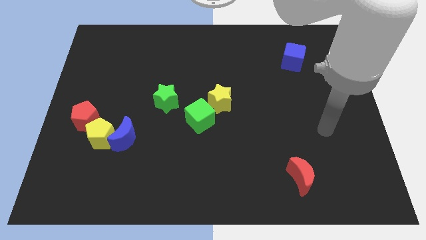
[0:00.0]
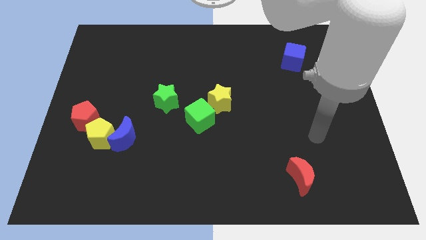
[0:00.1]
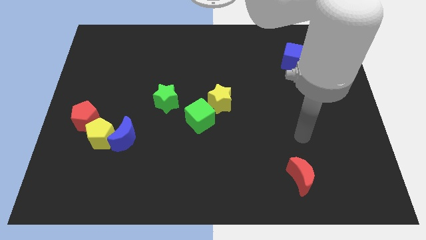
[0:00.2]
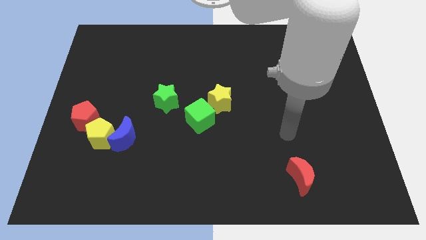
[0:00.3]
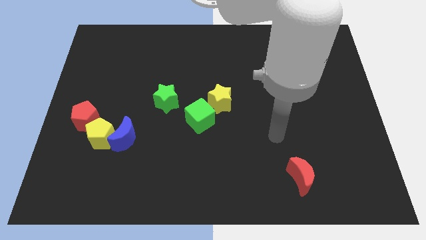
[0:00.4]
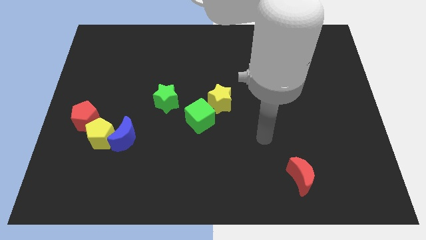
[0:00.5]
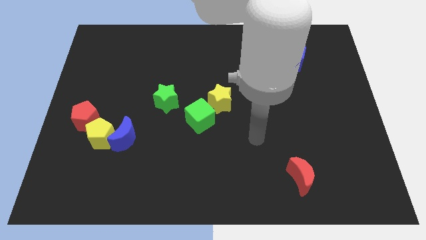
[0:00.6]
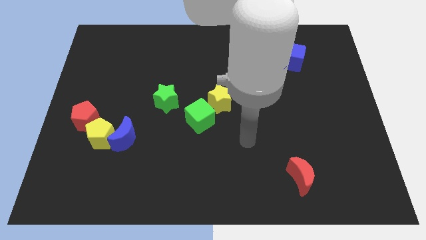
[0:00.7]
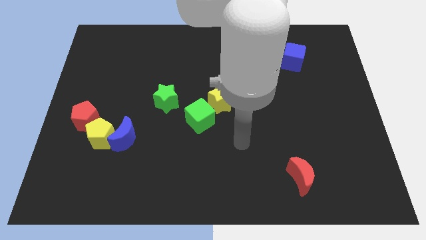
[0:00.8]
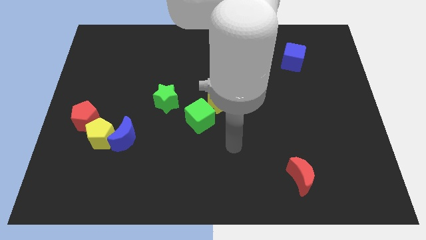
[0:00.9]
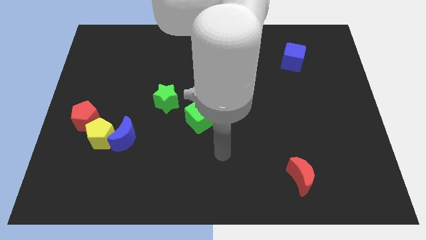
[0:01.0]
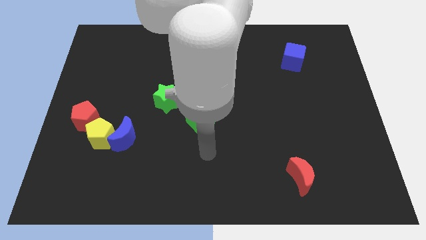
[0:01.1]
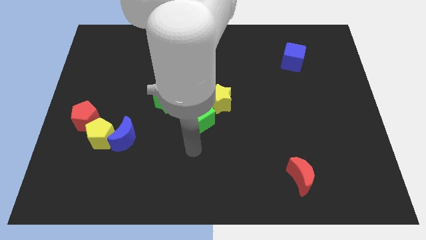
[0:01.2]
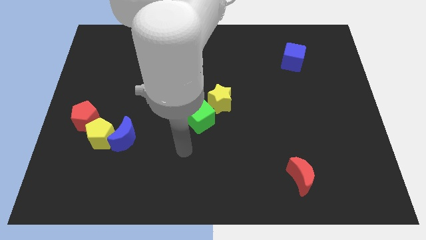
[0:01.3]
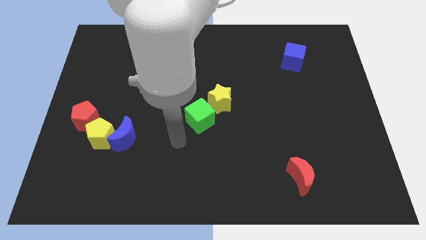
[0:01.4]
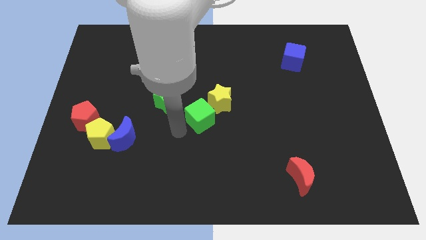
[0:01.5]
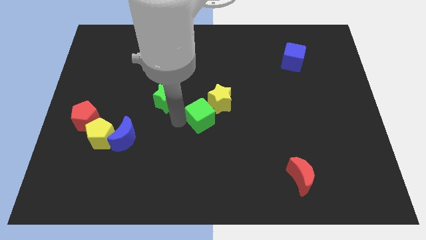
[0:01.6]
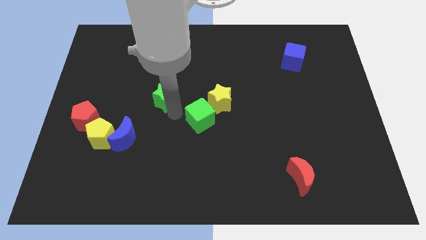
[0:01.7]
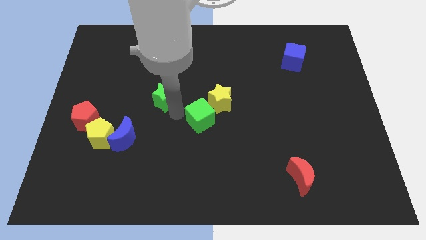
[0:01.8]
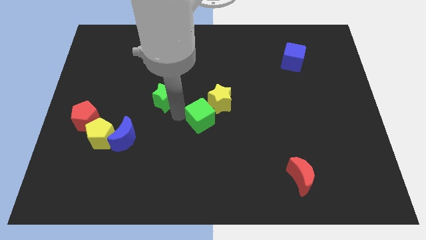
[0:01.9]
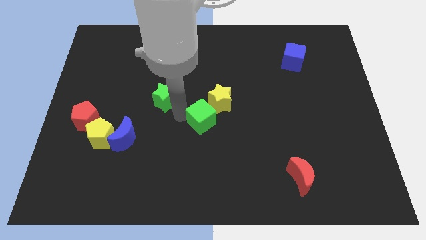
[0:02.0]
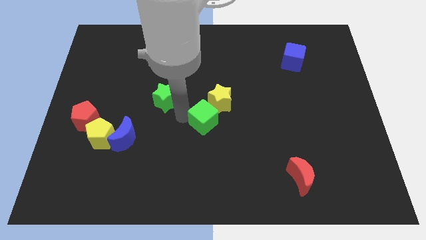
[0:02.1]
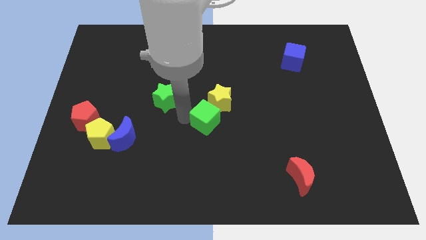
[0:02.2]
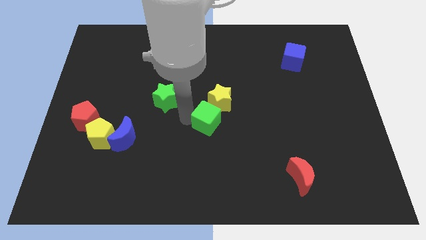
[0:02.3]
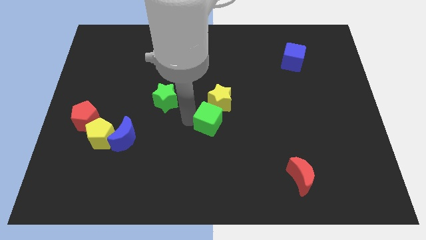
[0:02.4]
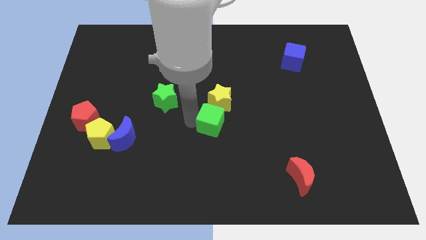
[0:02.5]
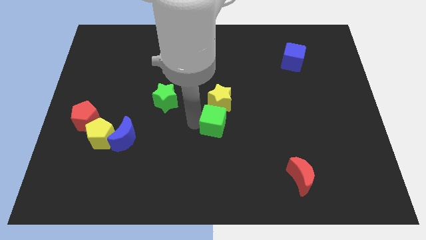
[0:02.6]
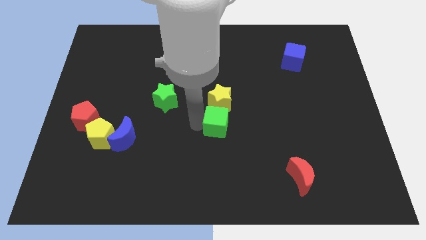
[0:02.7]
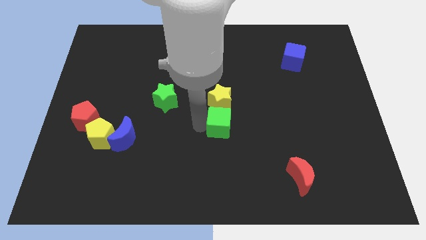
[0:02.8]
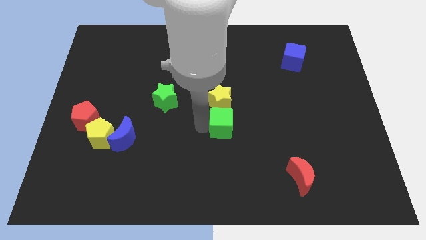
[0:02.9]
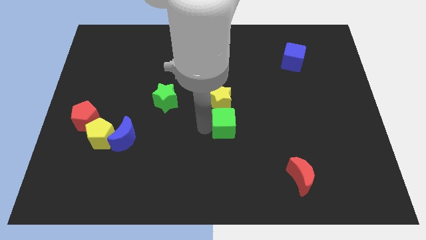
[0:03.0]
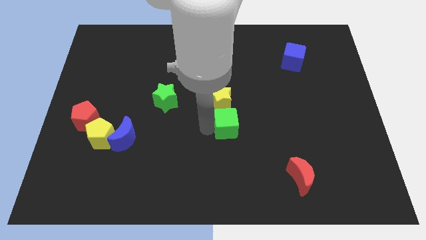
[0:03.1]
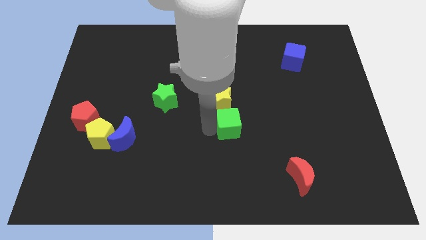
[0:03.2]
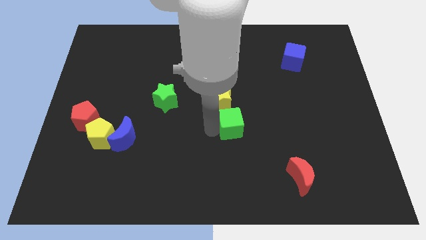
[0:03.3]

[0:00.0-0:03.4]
move the green cube a bit right

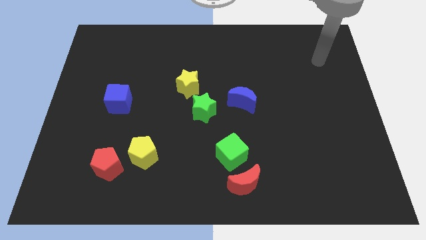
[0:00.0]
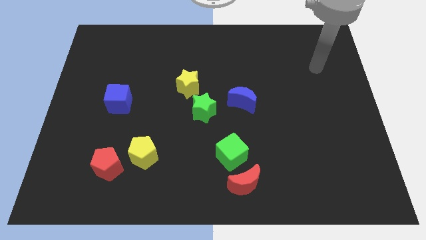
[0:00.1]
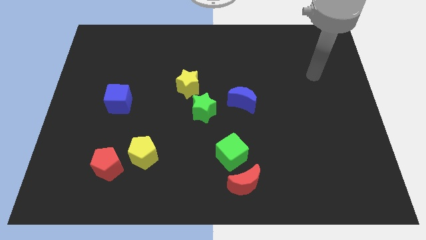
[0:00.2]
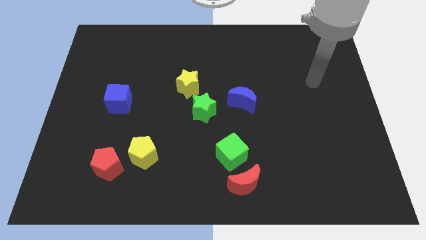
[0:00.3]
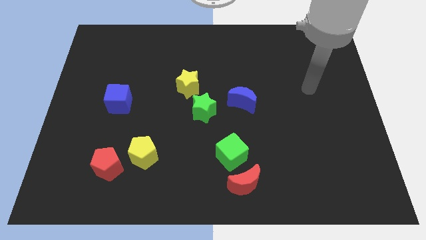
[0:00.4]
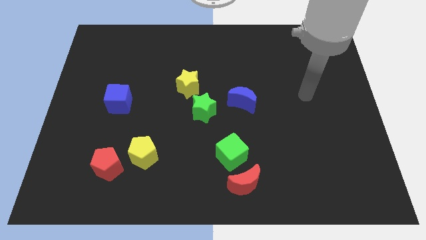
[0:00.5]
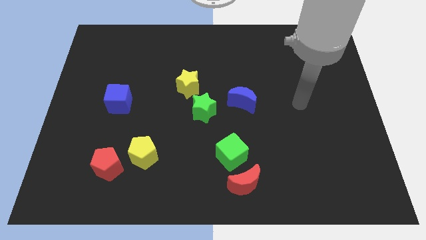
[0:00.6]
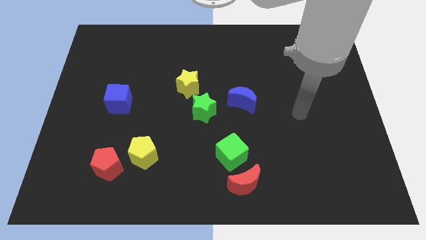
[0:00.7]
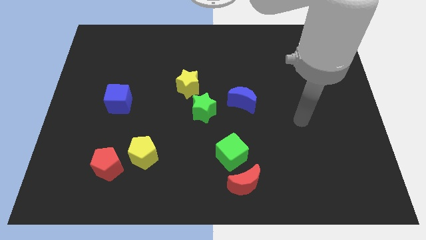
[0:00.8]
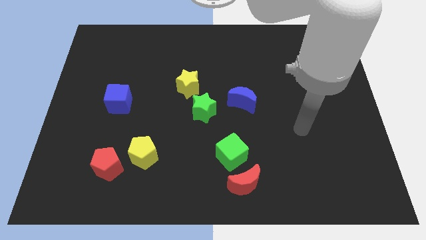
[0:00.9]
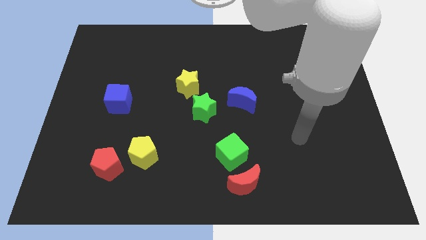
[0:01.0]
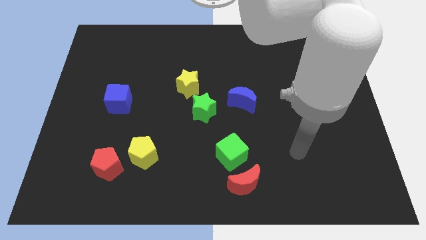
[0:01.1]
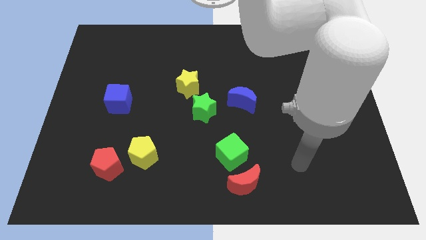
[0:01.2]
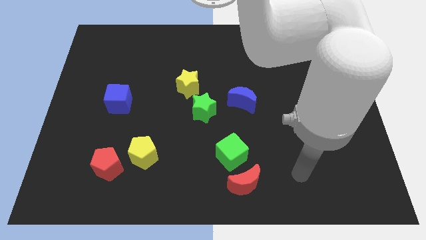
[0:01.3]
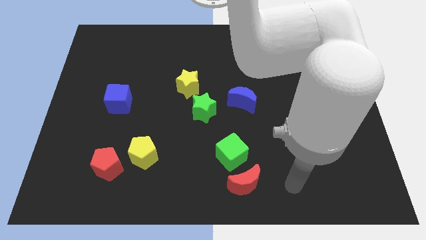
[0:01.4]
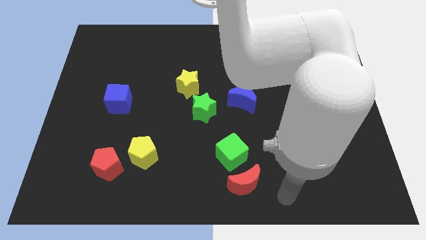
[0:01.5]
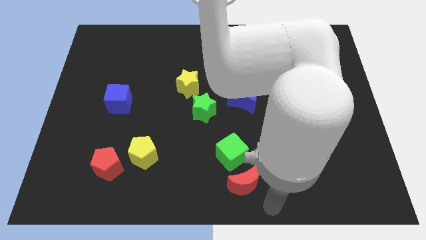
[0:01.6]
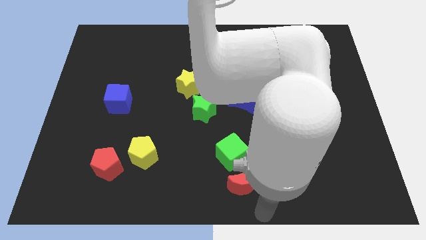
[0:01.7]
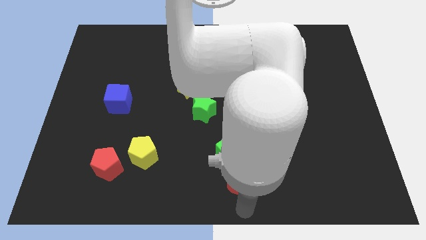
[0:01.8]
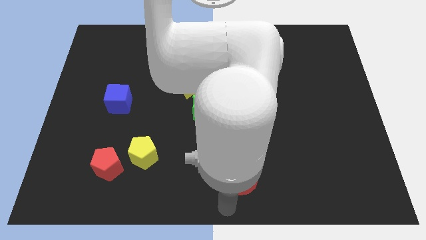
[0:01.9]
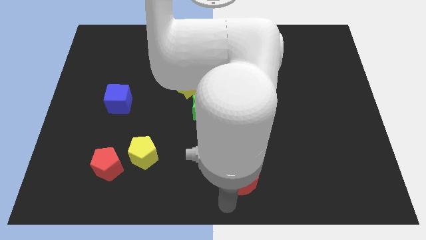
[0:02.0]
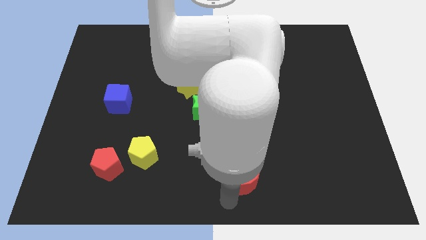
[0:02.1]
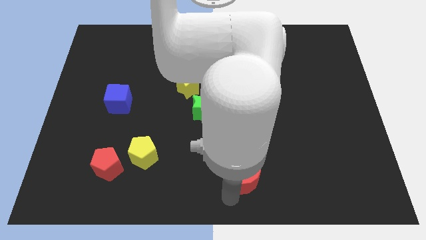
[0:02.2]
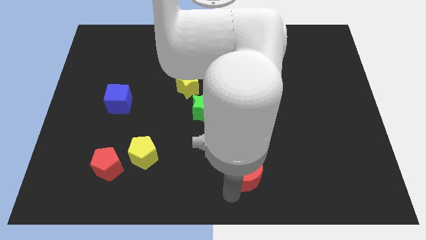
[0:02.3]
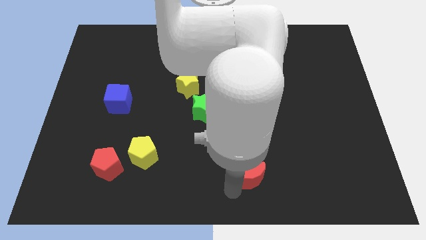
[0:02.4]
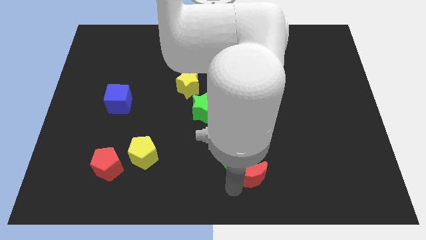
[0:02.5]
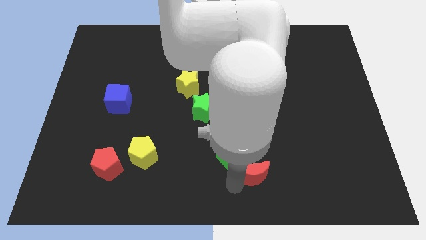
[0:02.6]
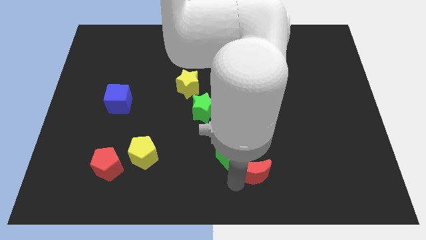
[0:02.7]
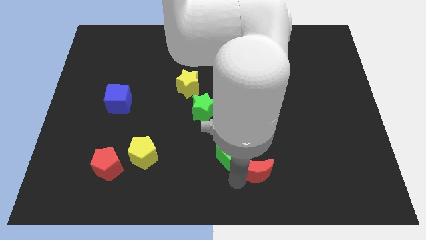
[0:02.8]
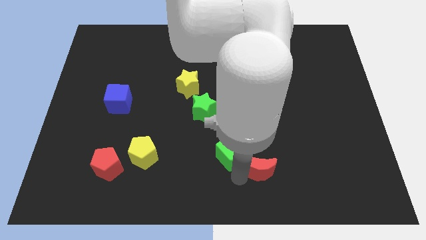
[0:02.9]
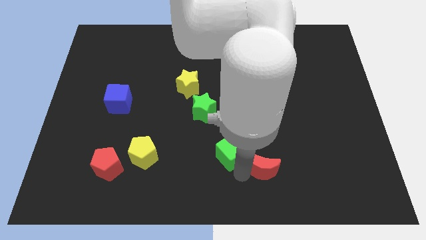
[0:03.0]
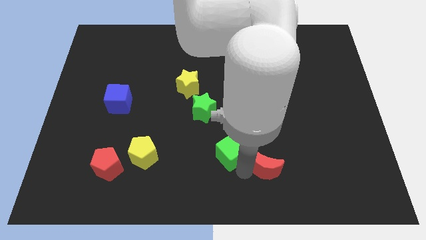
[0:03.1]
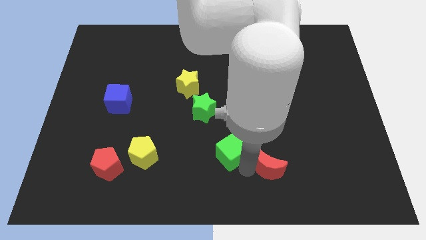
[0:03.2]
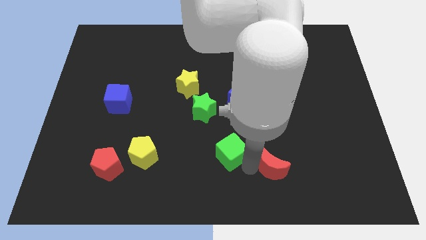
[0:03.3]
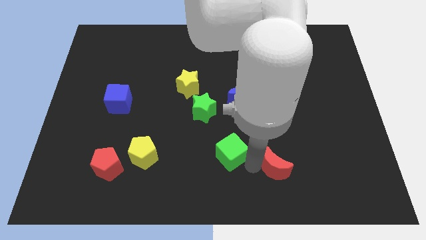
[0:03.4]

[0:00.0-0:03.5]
slightly slide the red moon upwards and right diagonally

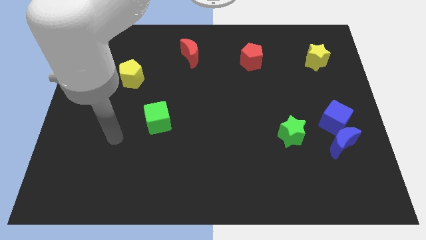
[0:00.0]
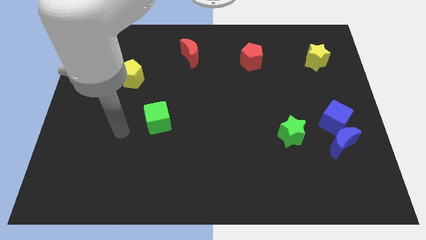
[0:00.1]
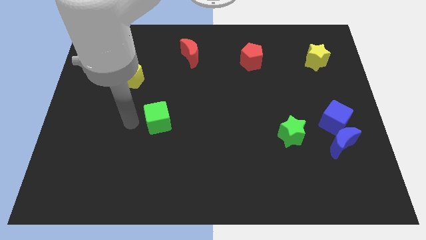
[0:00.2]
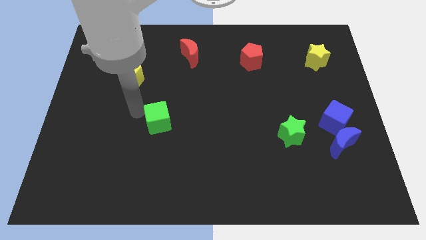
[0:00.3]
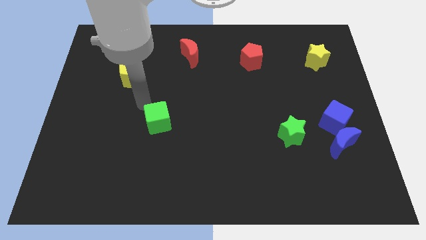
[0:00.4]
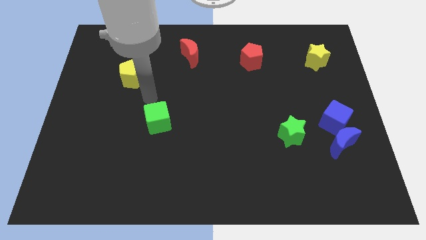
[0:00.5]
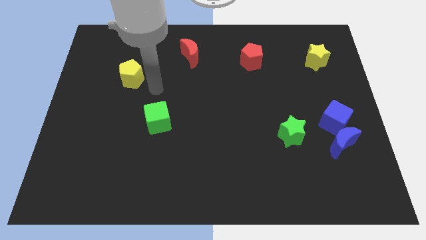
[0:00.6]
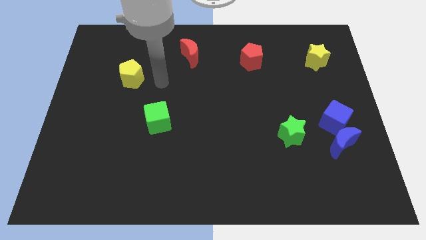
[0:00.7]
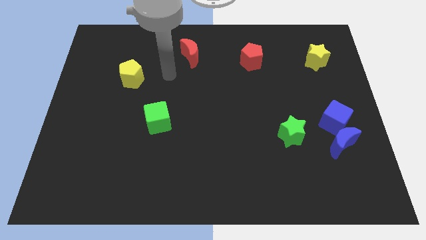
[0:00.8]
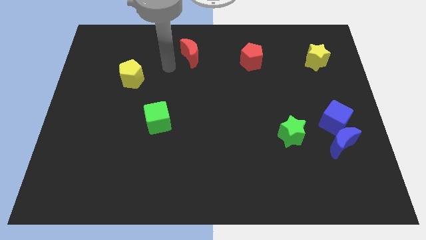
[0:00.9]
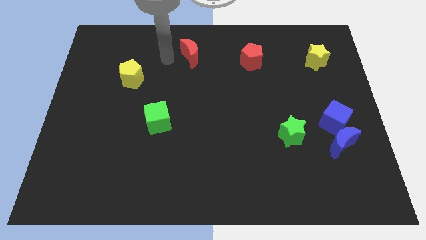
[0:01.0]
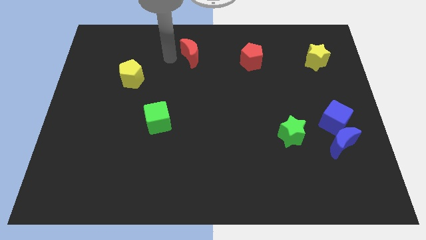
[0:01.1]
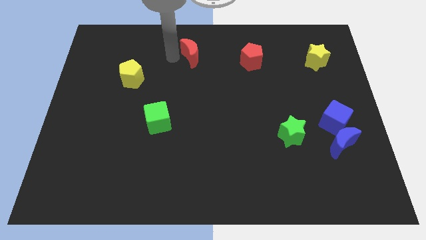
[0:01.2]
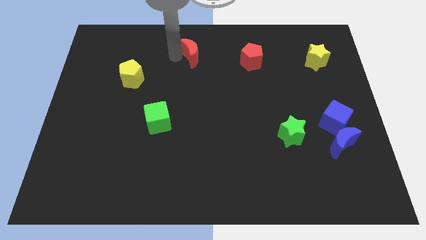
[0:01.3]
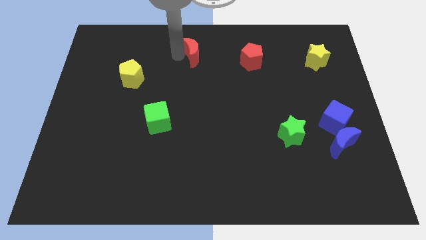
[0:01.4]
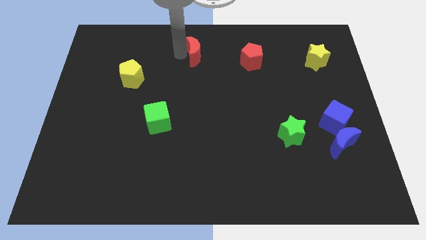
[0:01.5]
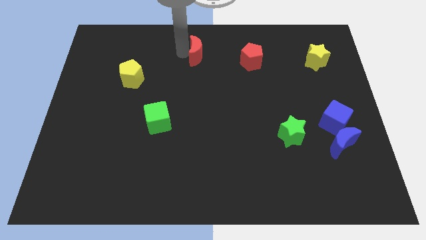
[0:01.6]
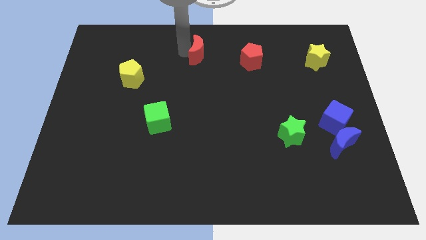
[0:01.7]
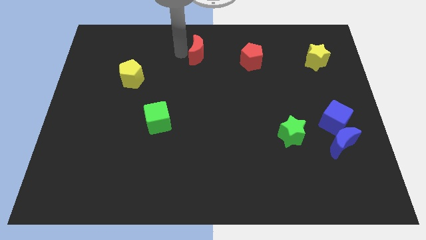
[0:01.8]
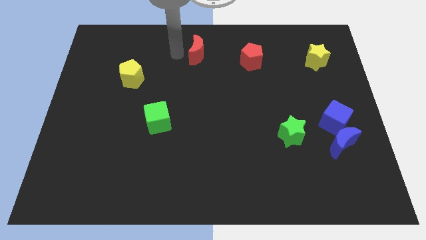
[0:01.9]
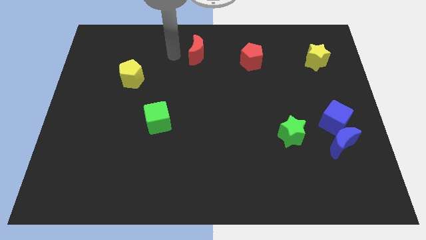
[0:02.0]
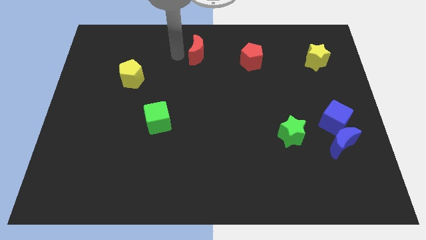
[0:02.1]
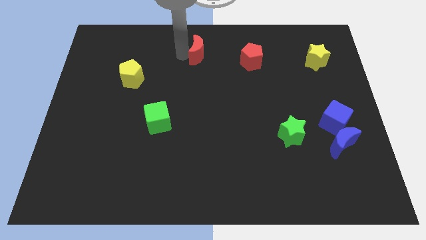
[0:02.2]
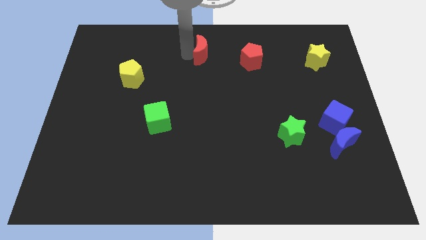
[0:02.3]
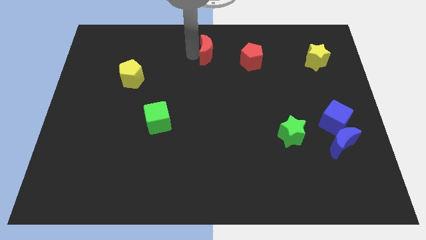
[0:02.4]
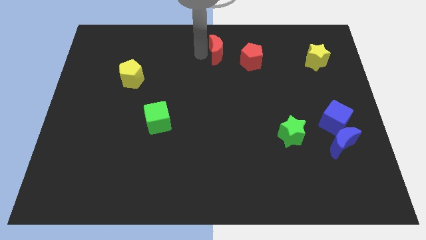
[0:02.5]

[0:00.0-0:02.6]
slightly push the red moon to the right
